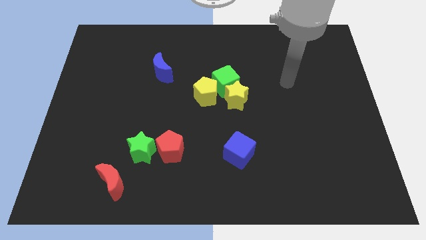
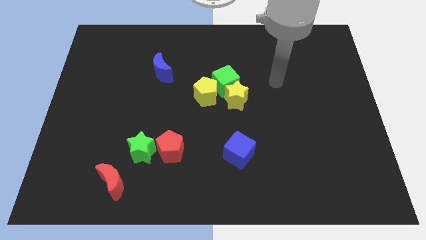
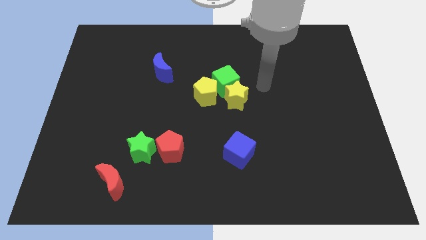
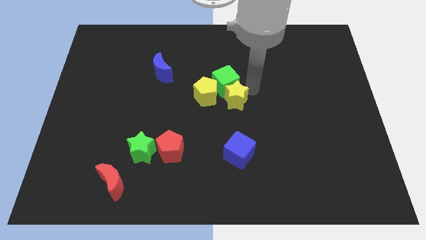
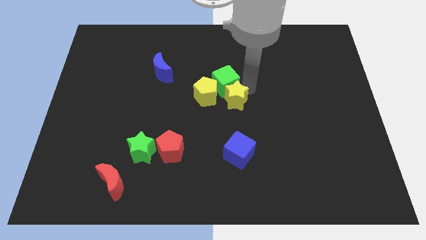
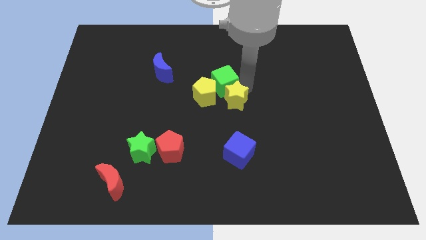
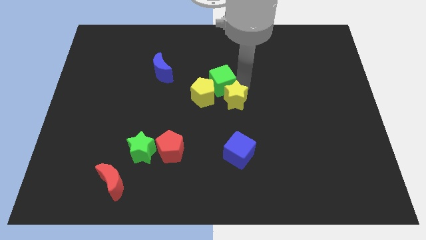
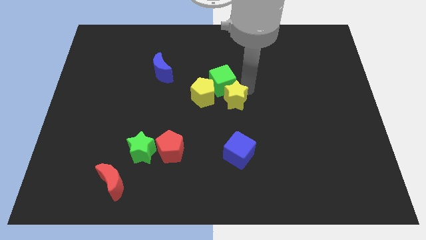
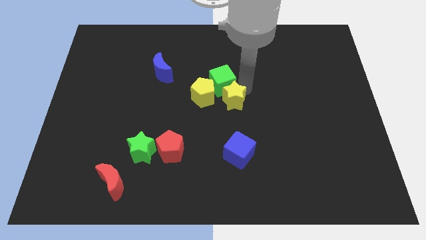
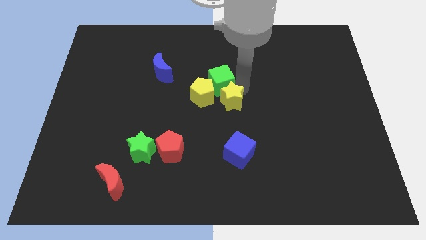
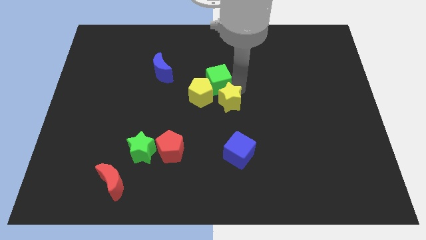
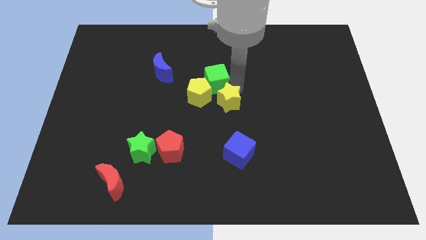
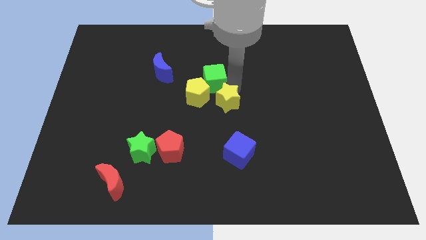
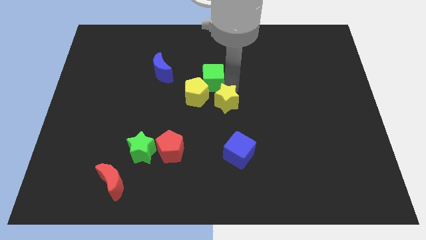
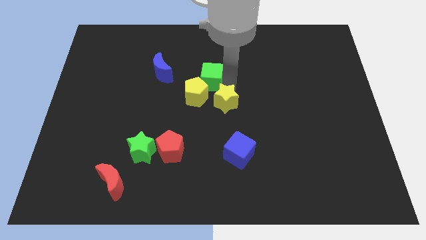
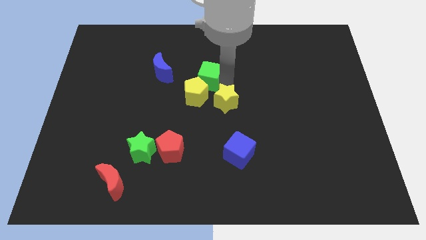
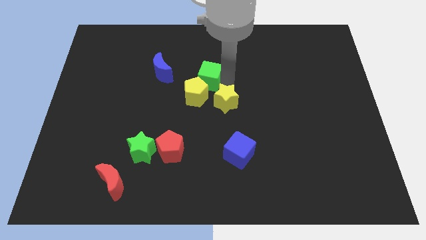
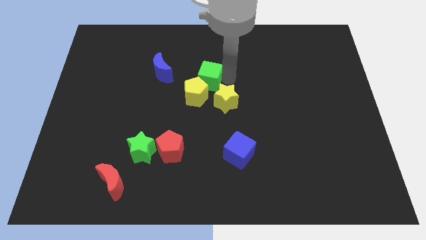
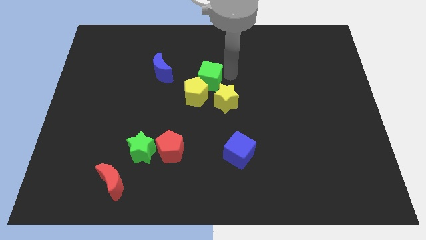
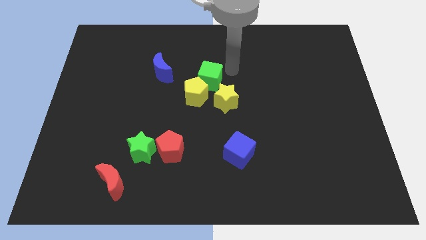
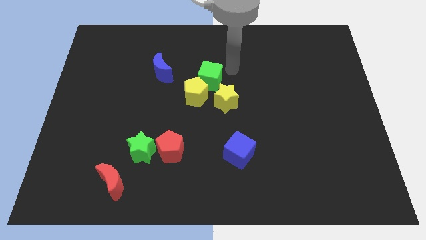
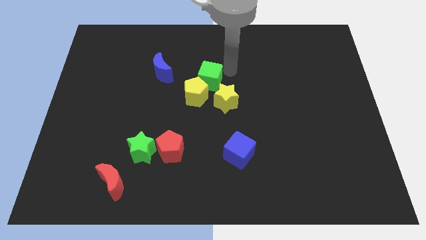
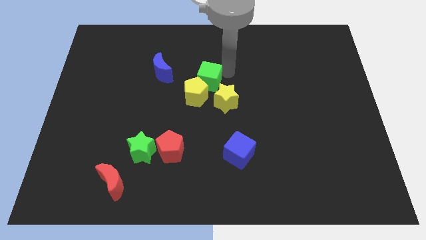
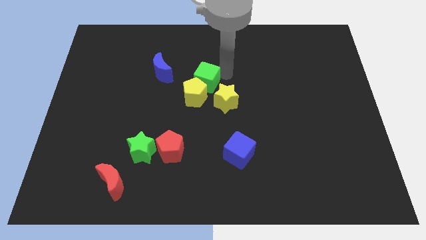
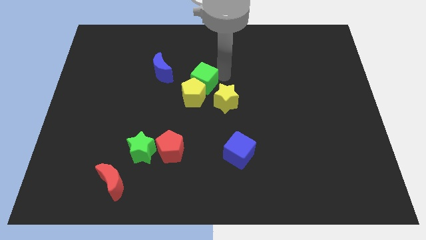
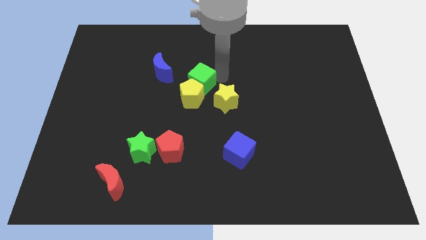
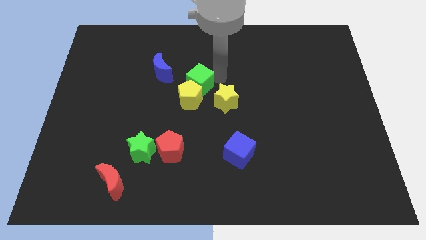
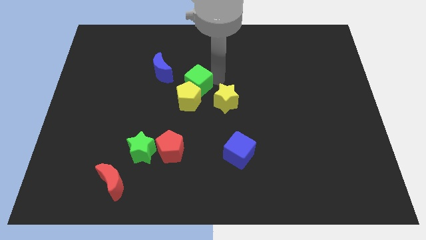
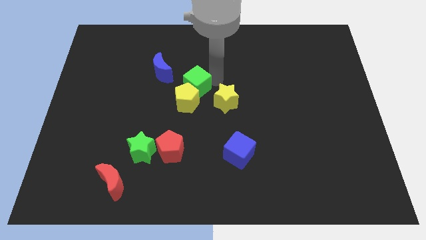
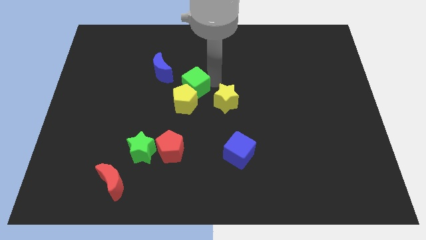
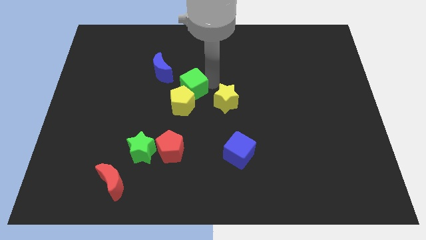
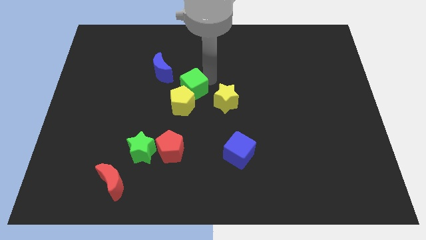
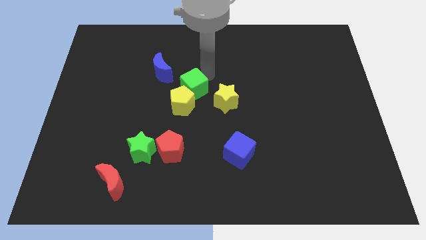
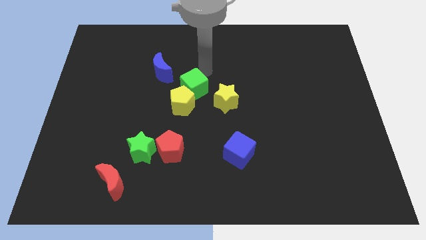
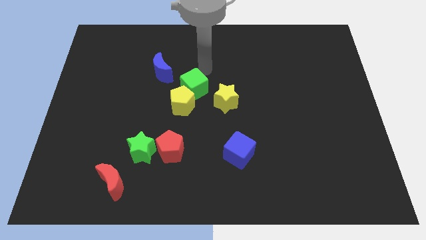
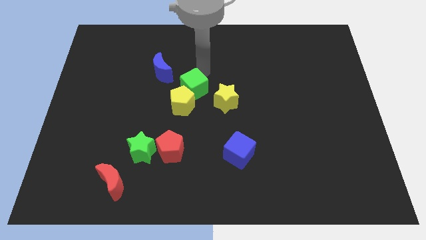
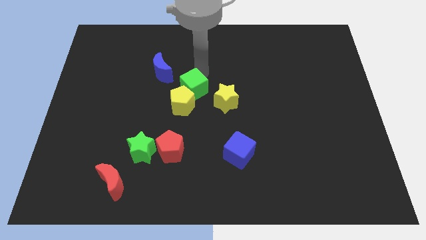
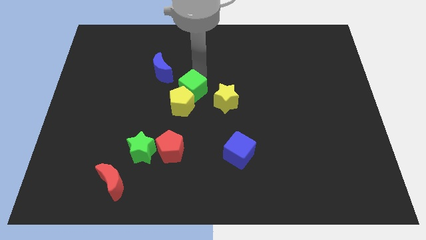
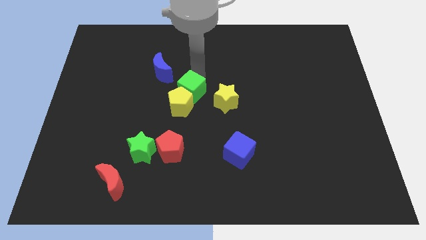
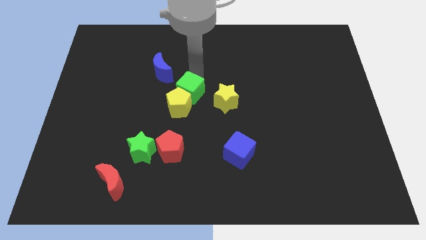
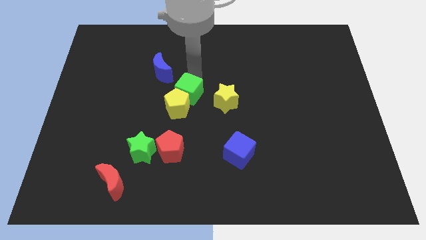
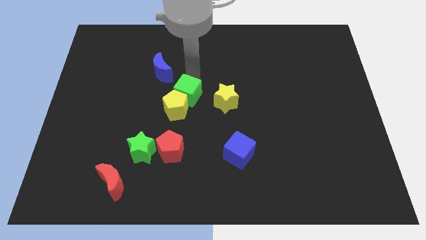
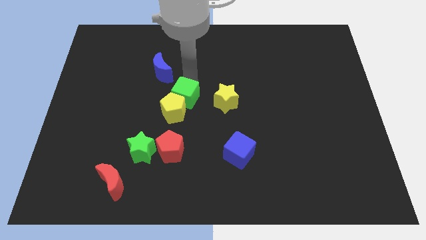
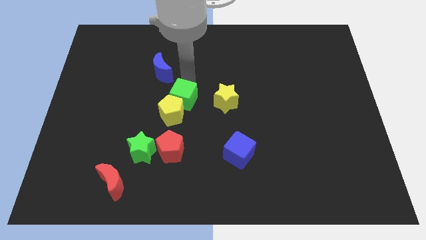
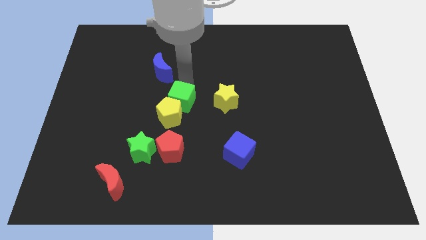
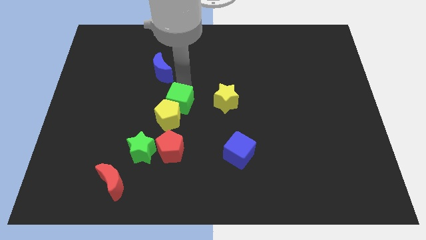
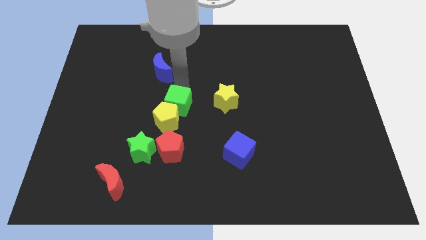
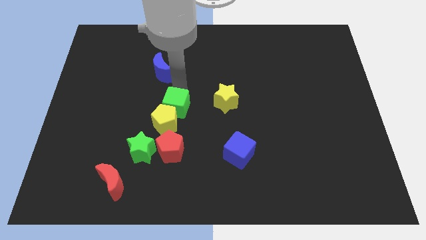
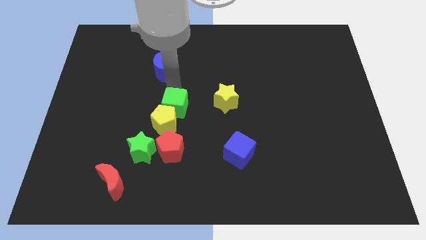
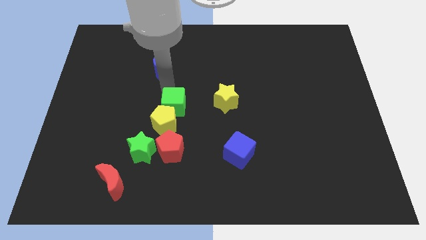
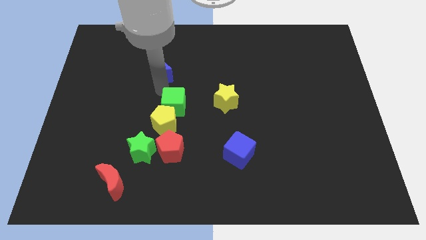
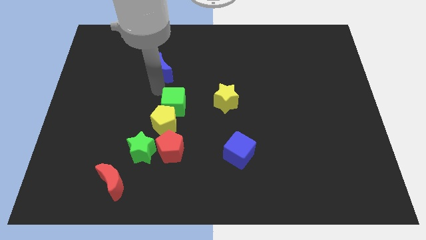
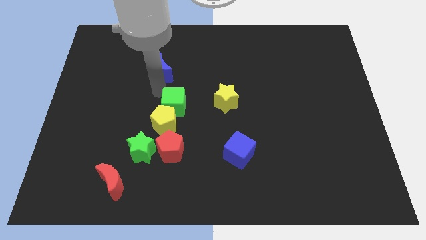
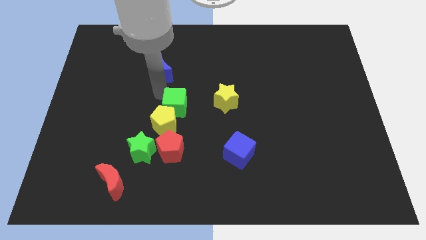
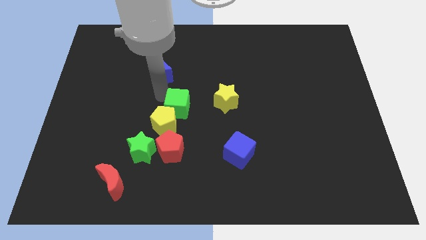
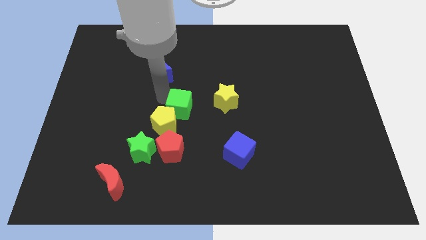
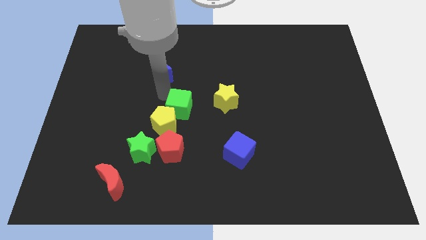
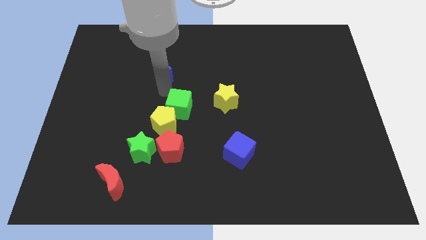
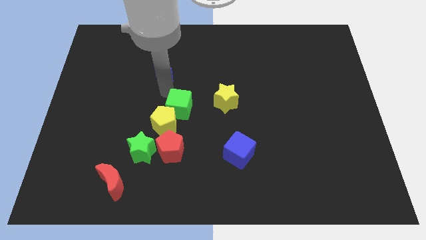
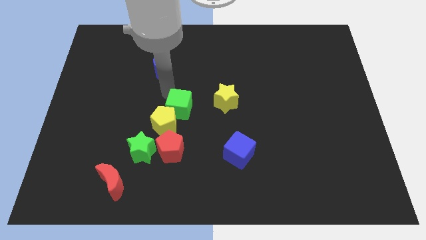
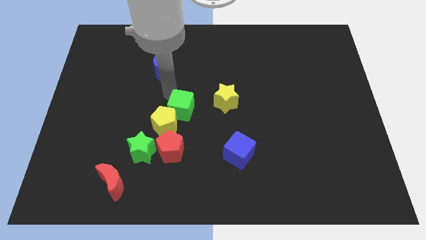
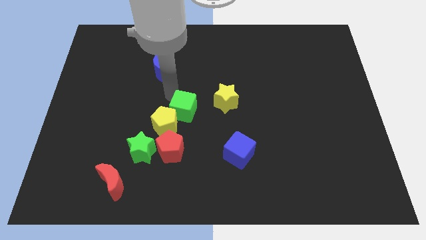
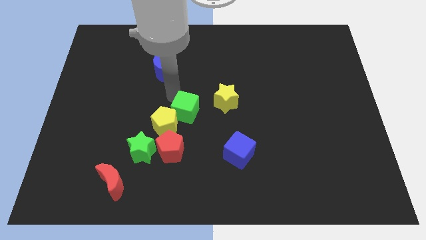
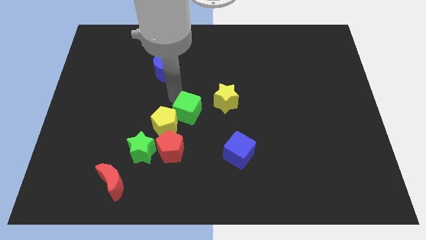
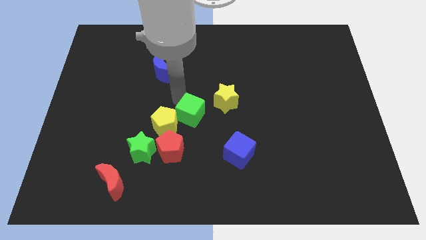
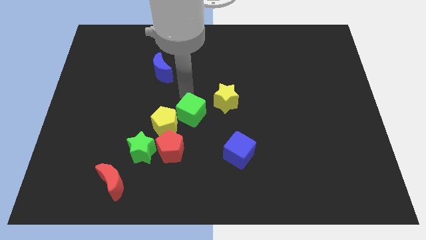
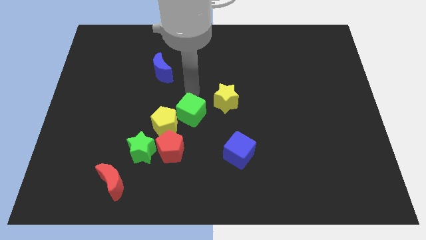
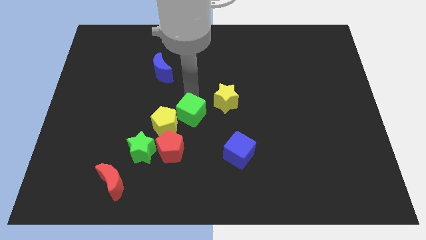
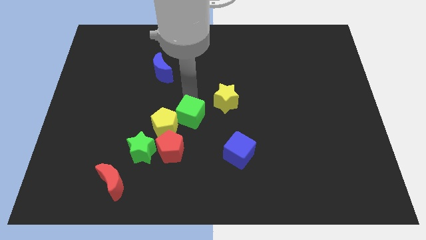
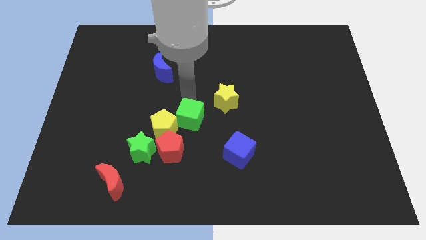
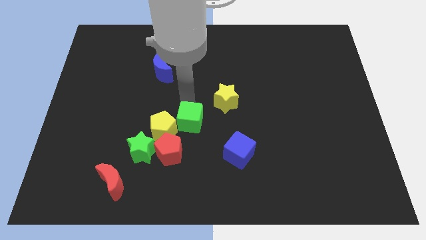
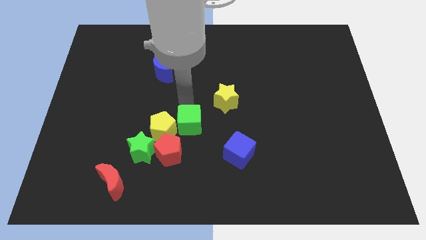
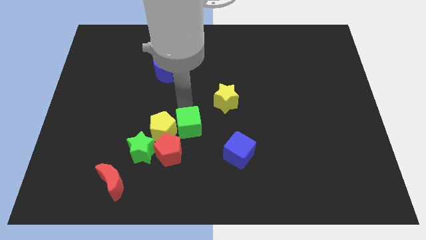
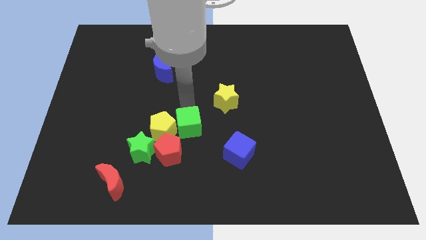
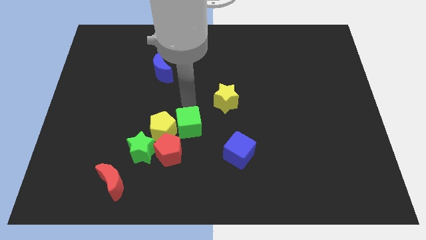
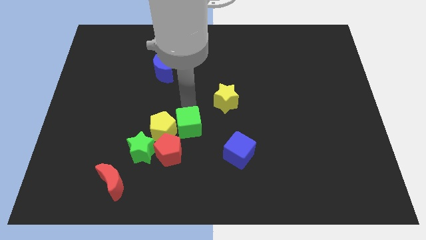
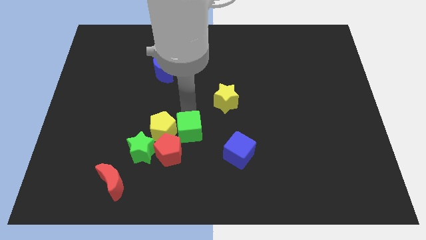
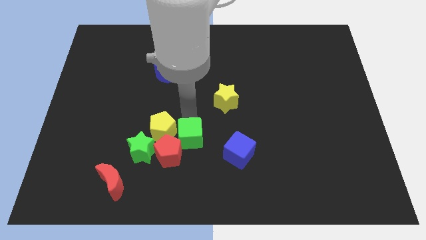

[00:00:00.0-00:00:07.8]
push the green cube to the right of the green star
